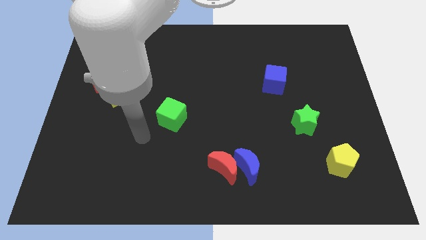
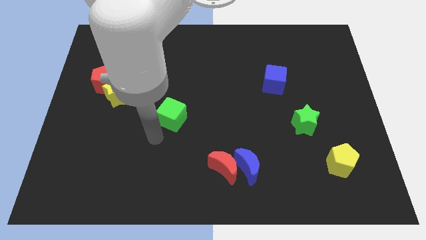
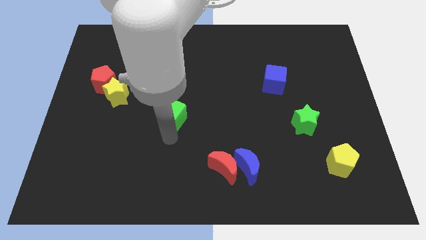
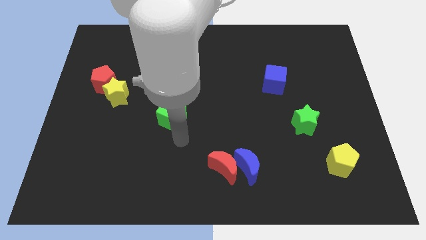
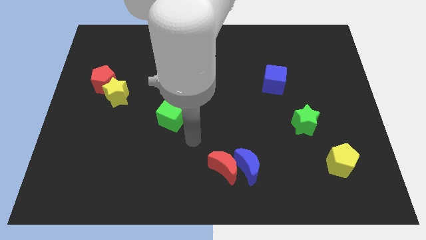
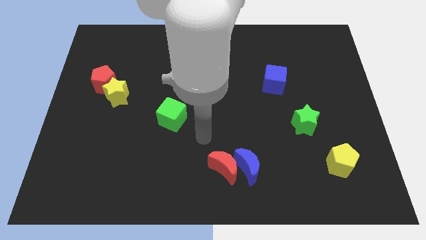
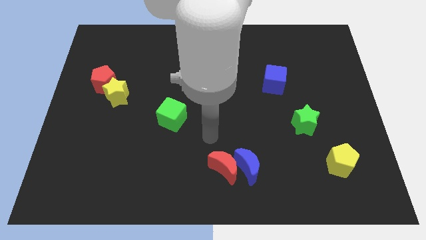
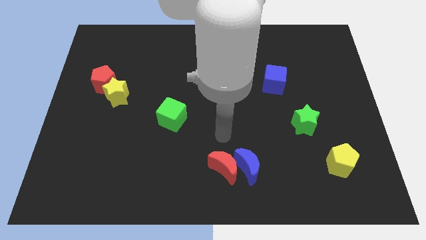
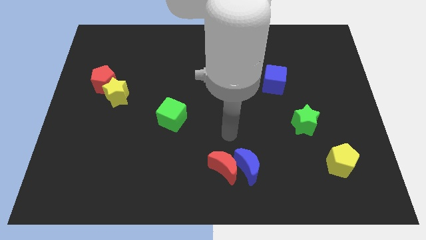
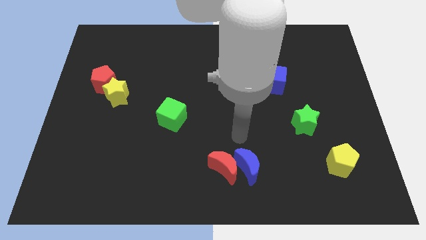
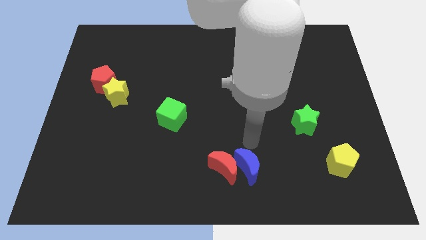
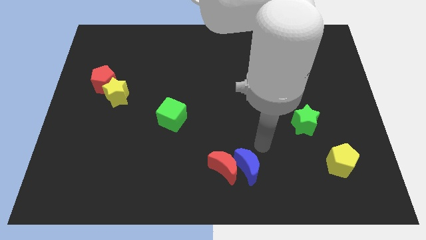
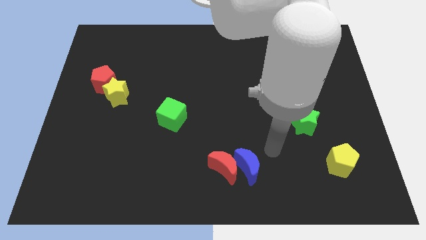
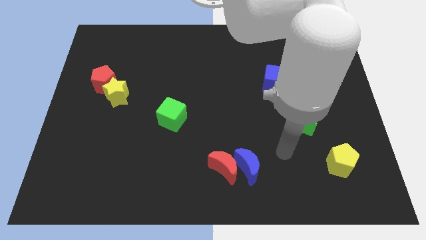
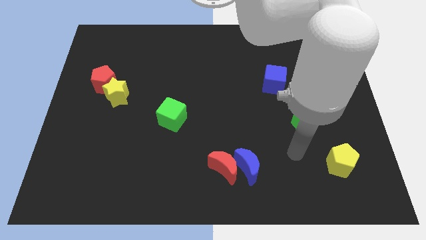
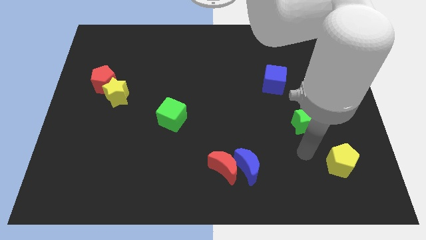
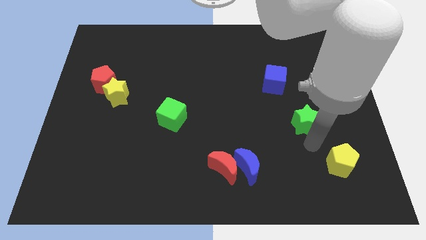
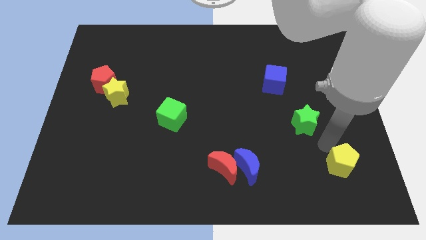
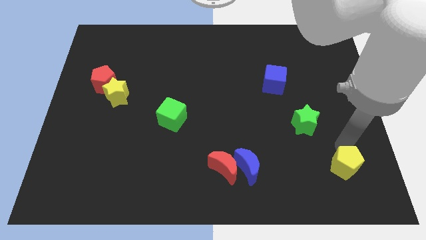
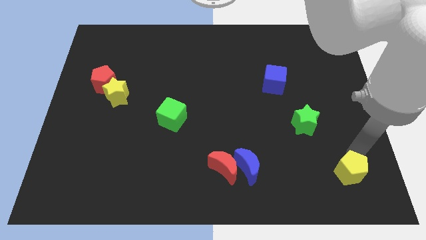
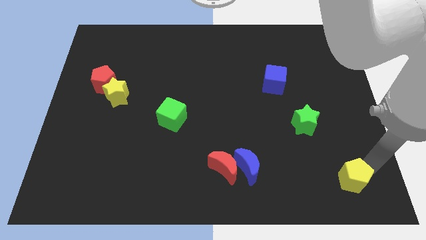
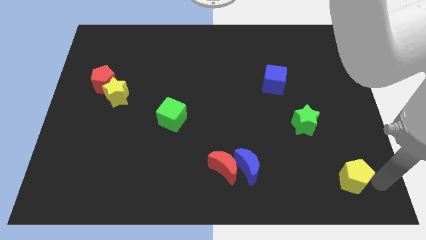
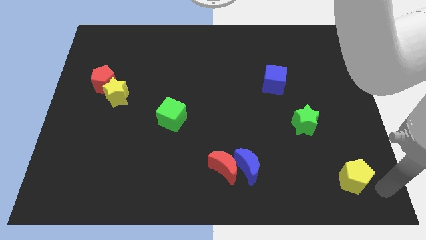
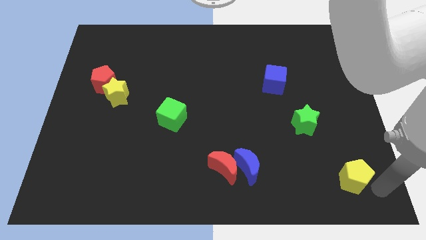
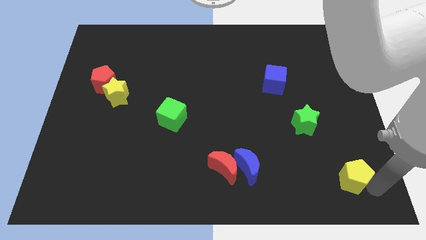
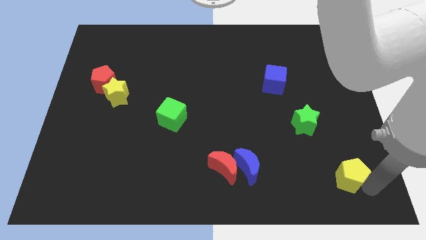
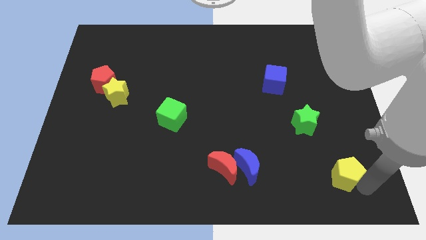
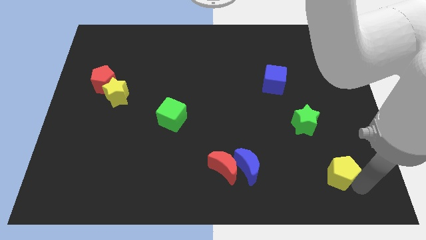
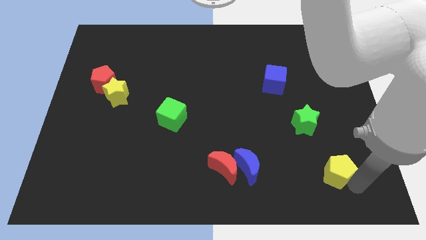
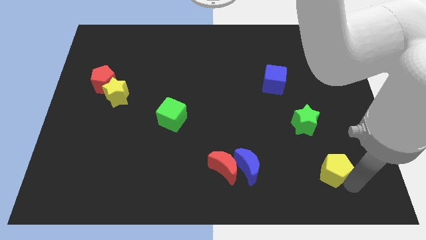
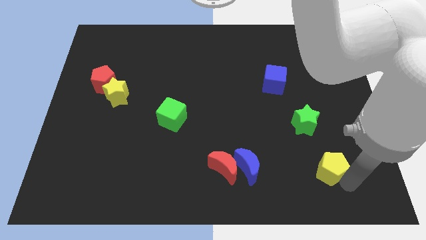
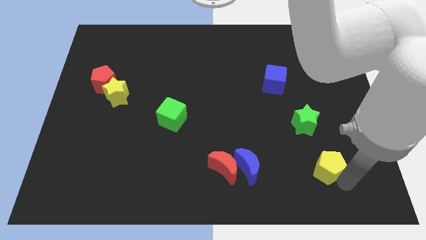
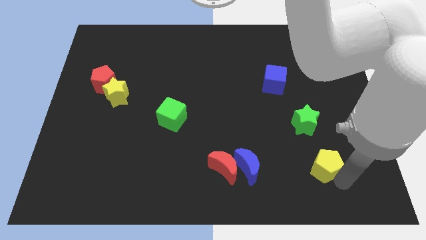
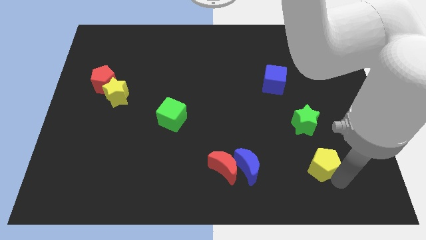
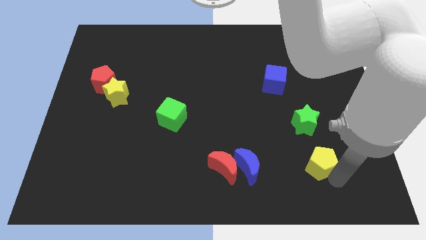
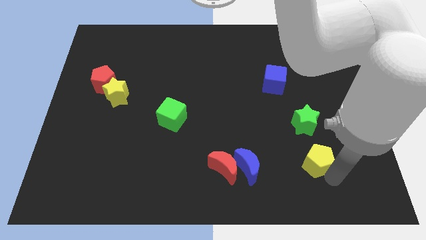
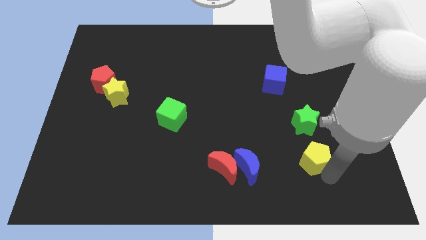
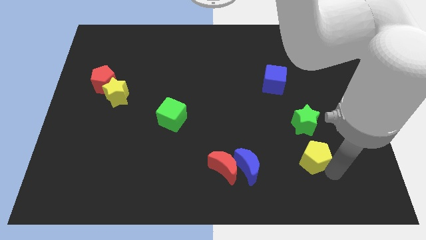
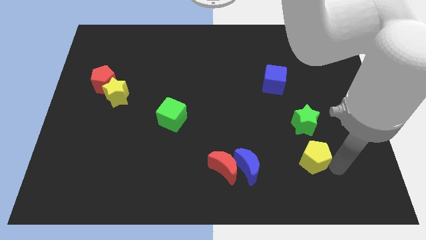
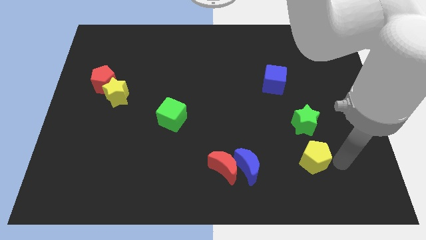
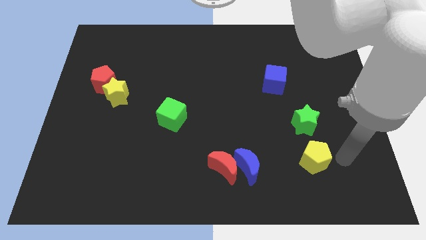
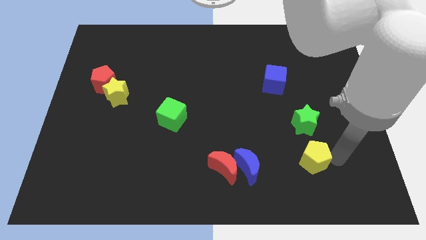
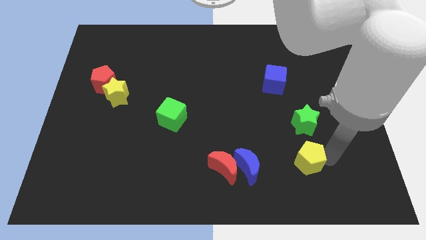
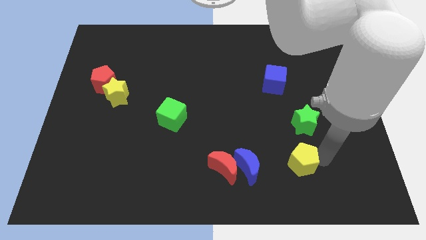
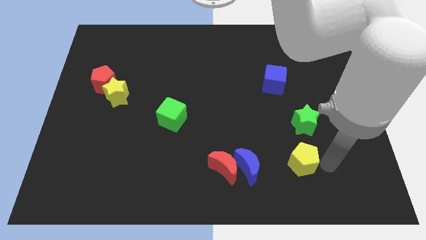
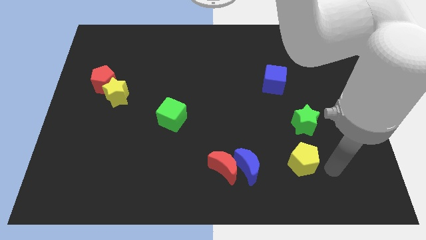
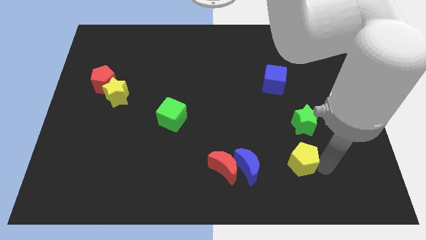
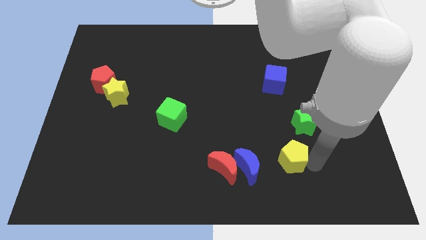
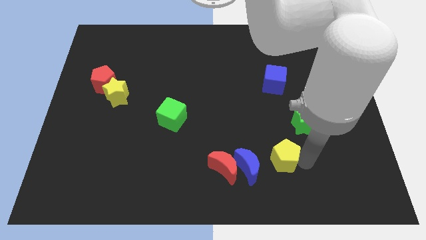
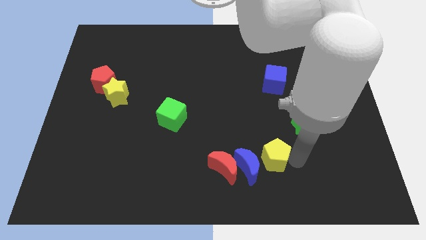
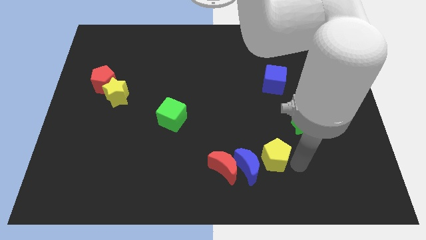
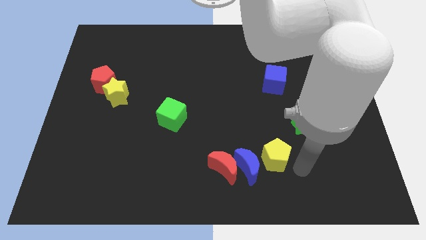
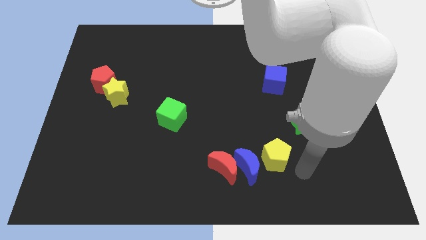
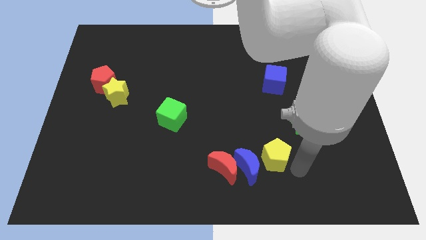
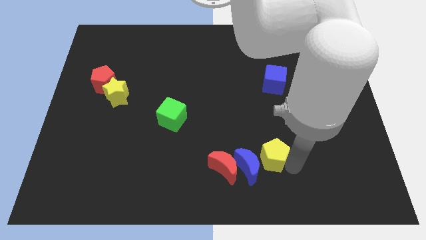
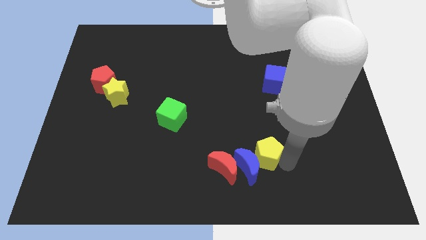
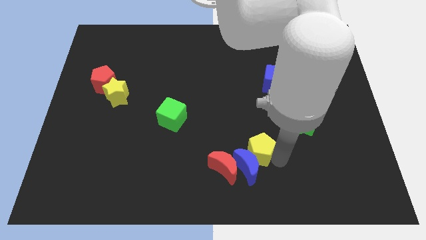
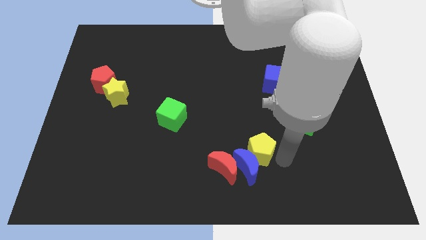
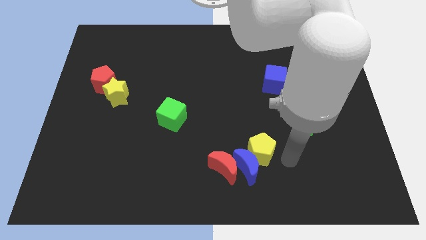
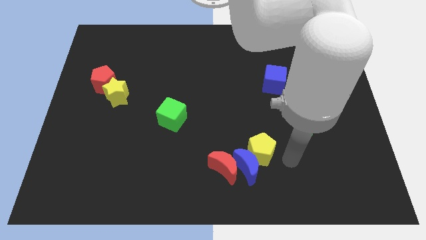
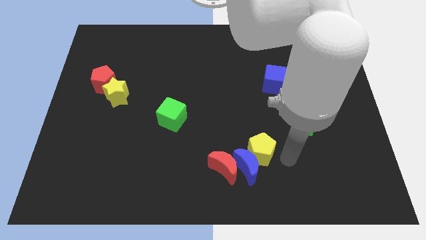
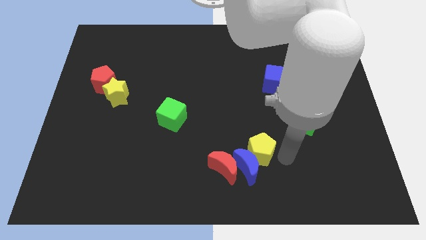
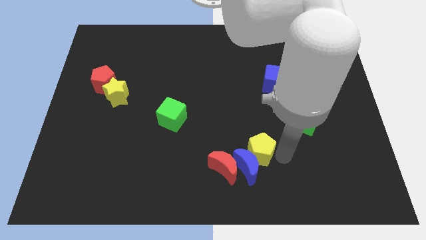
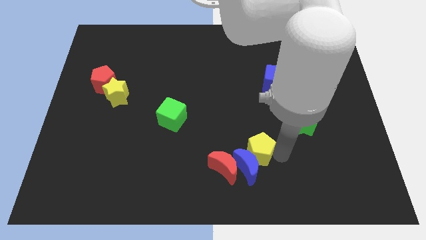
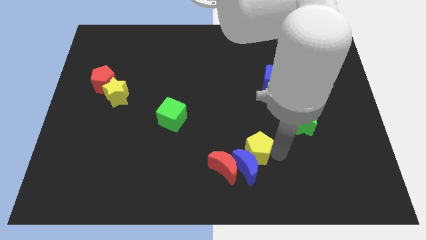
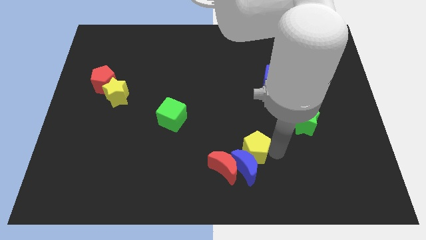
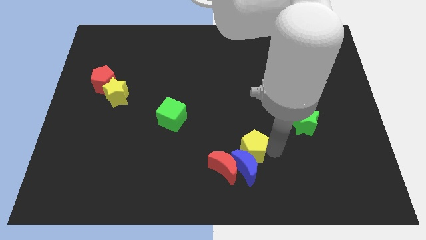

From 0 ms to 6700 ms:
move the yellow pentagon to the top left side of the blue moon
